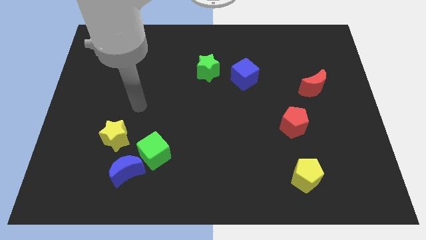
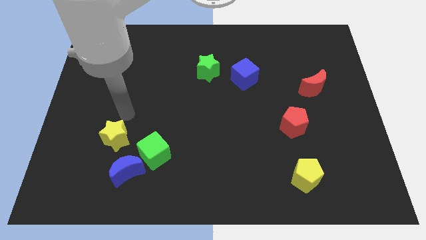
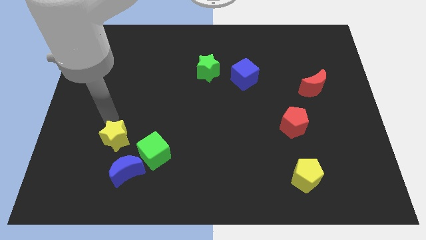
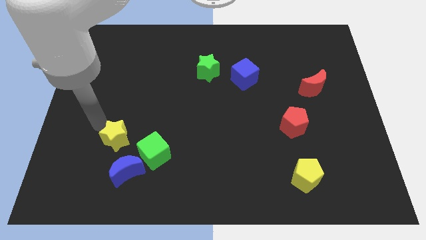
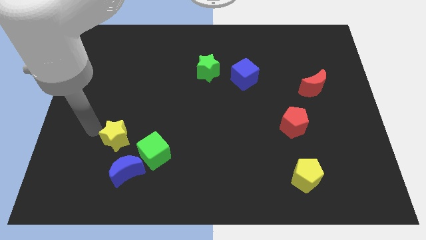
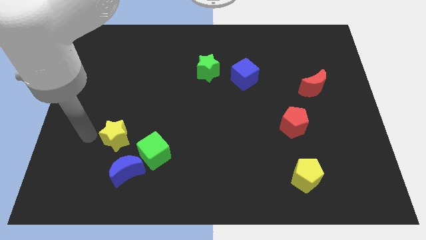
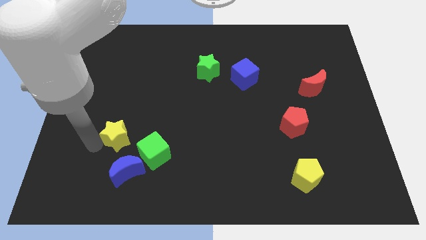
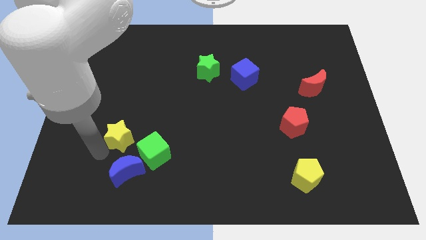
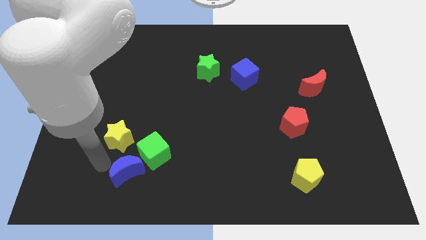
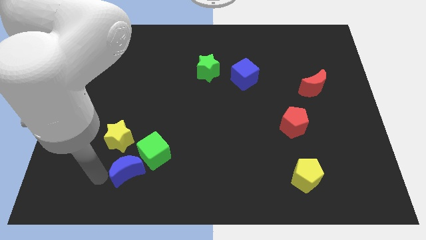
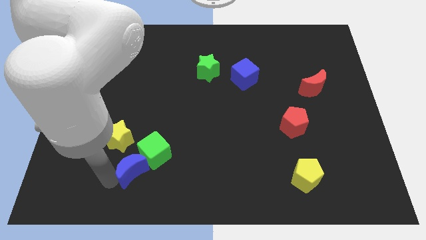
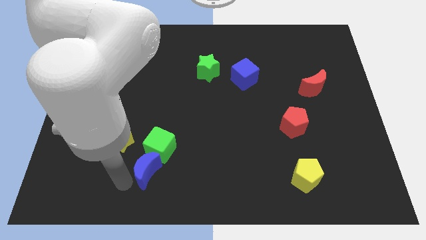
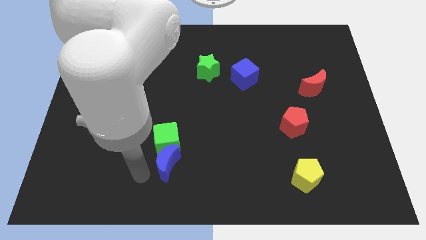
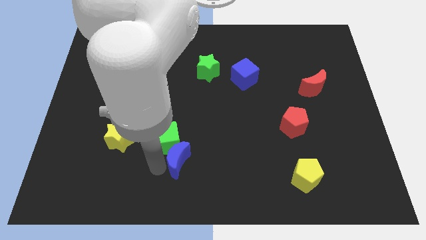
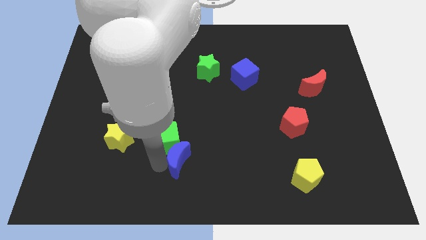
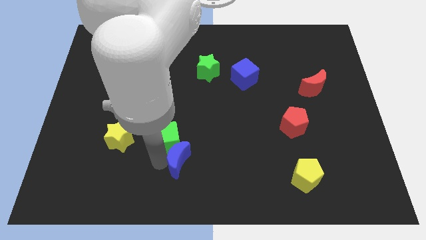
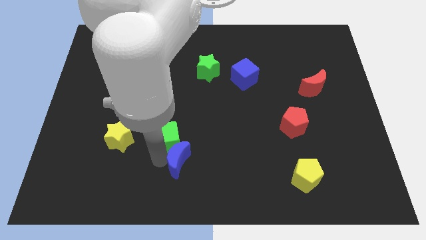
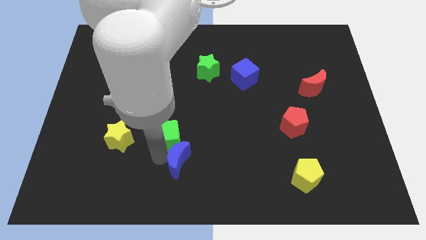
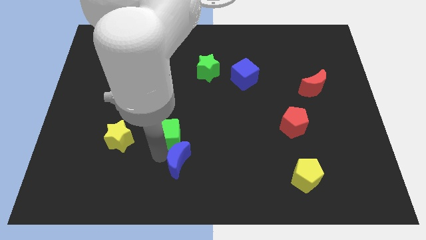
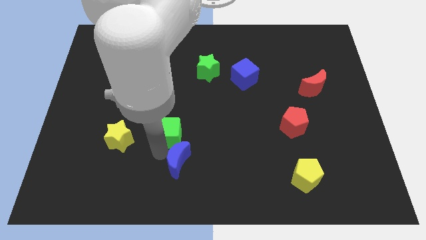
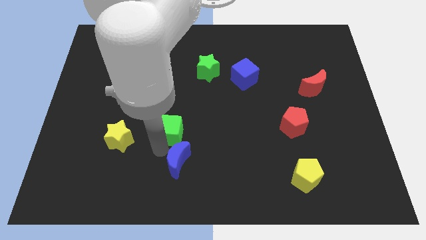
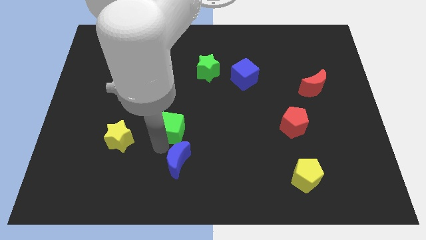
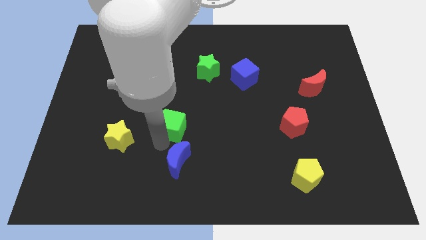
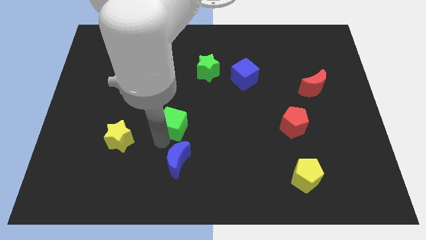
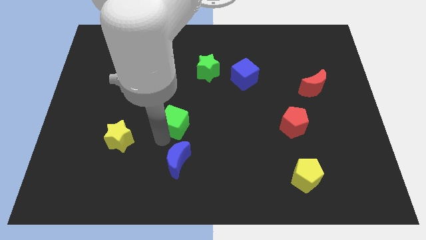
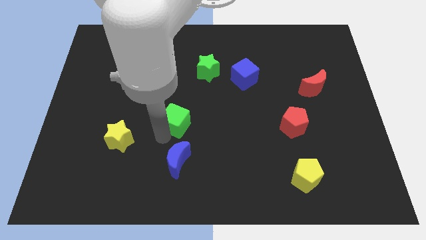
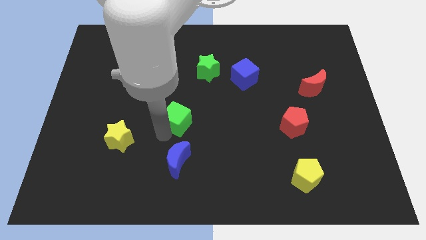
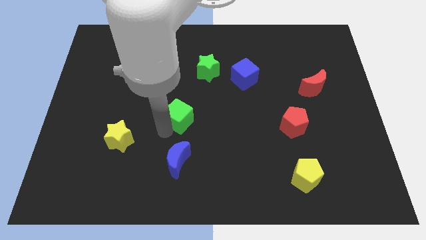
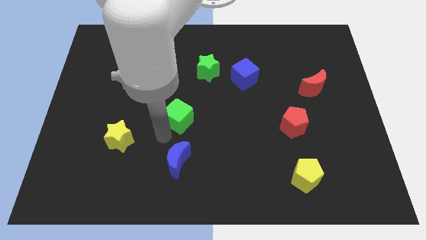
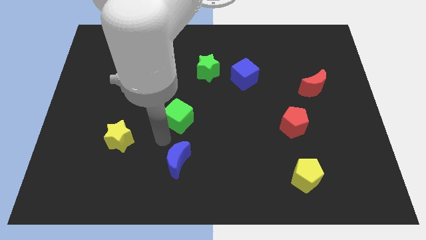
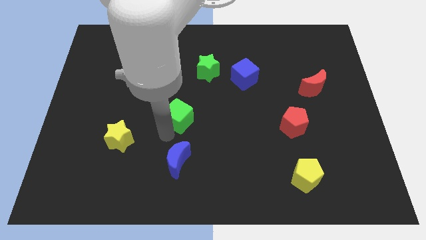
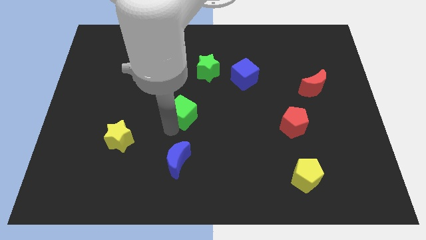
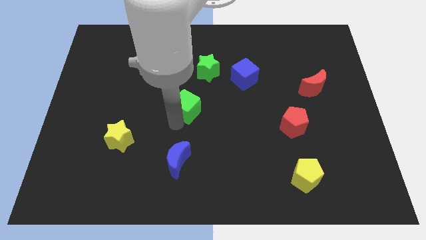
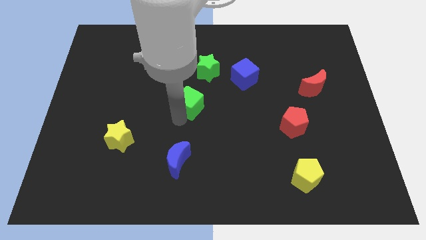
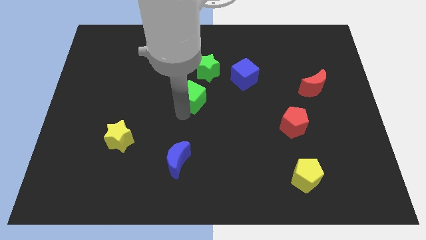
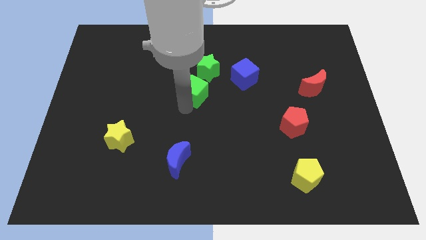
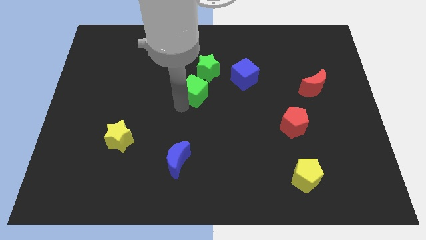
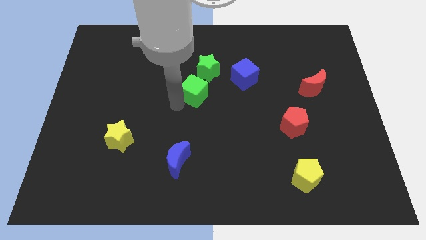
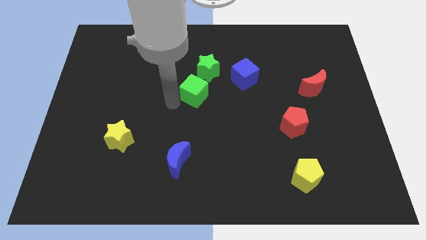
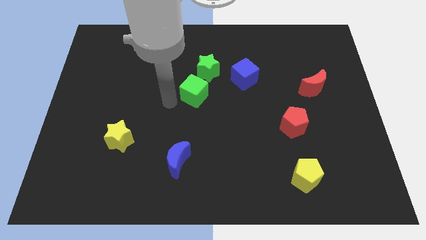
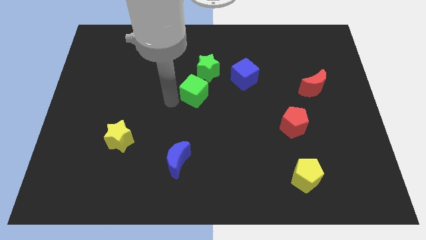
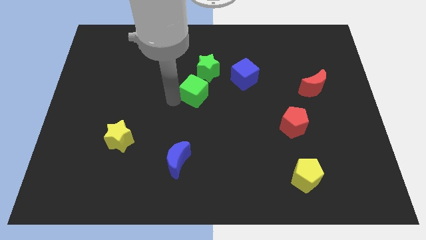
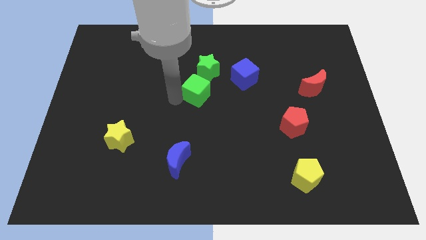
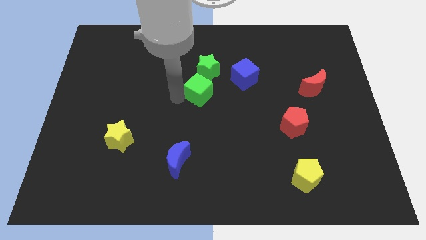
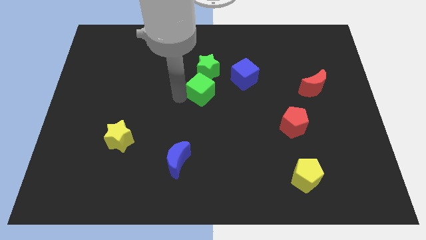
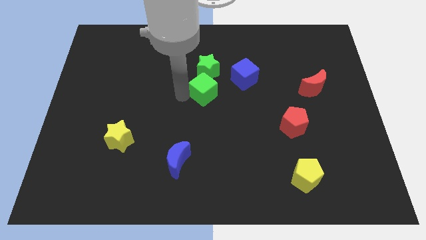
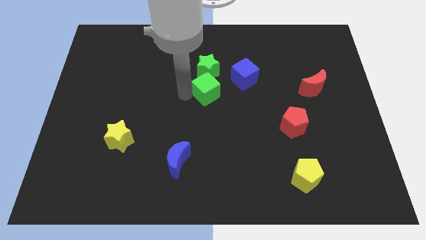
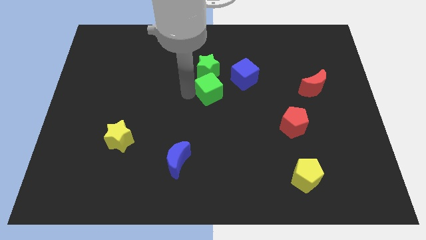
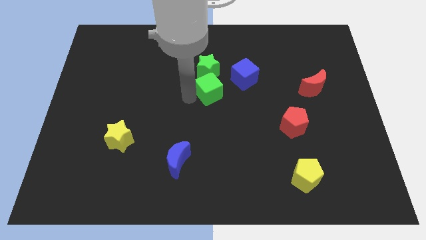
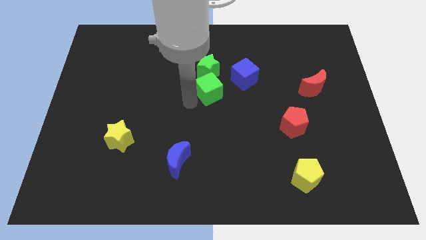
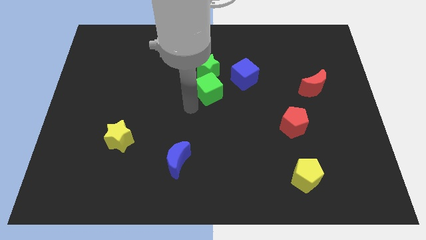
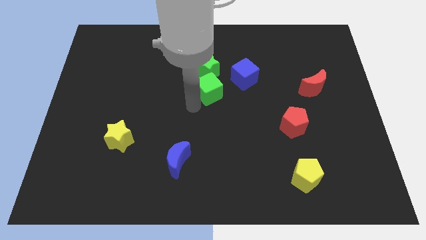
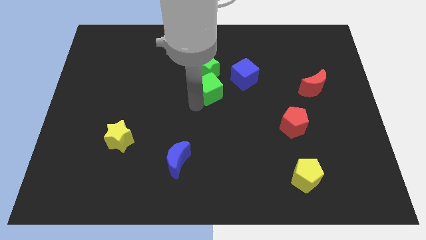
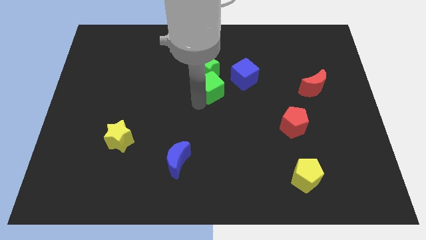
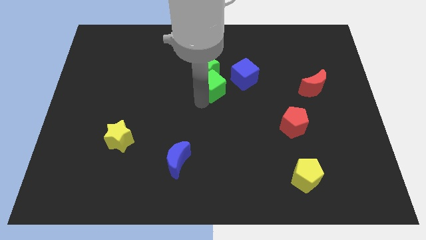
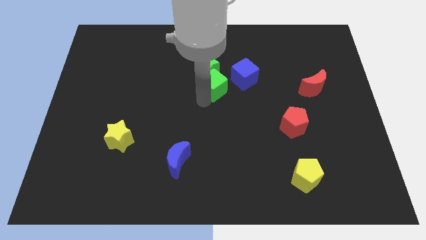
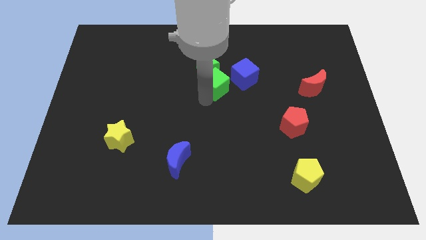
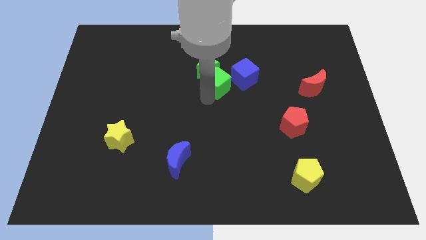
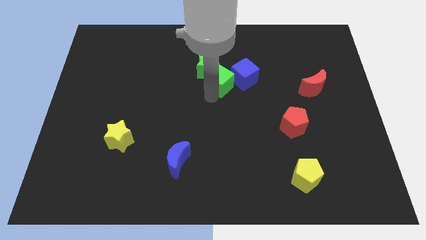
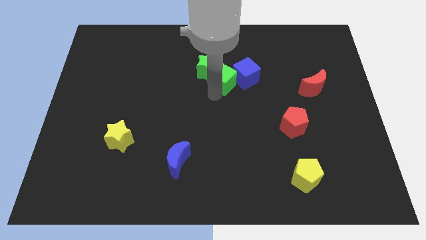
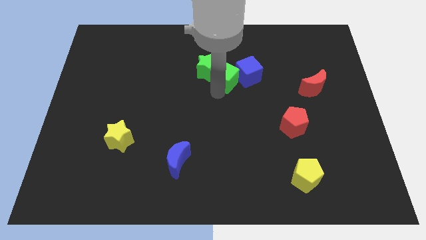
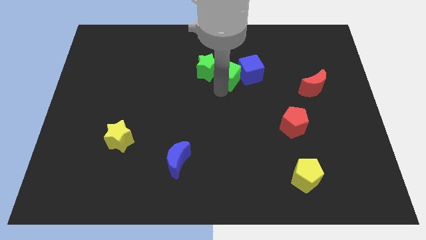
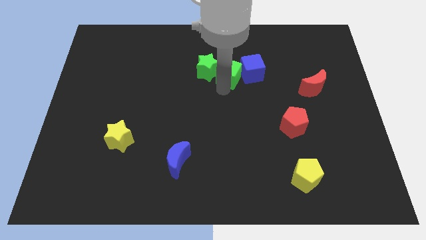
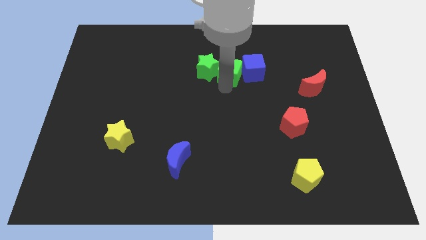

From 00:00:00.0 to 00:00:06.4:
put the green cube to the top right side of the green star

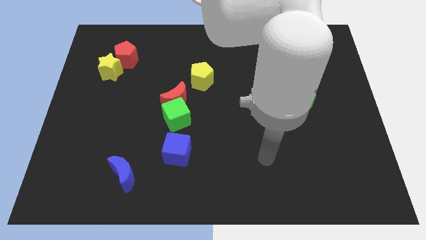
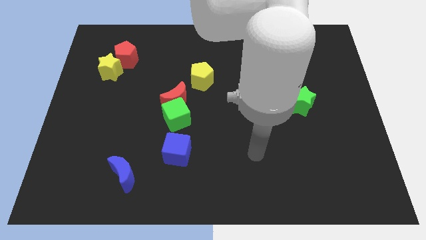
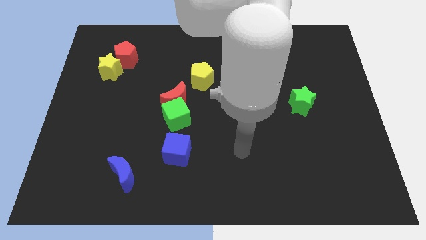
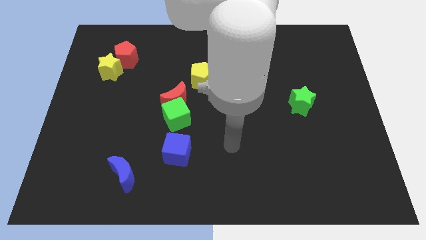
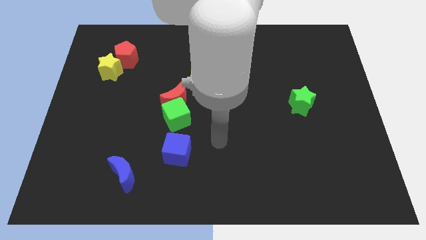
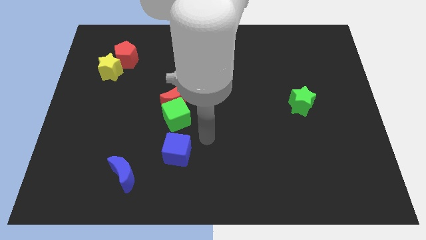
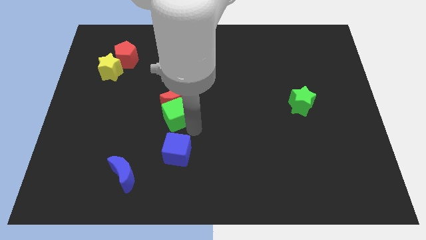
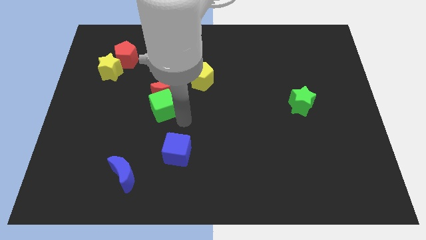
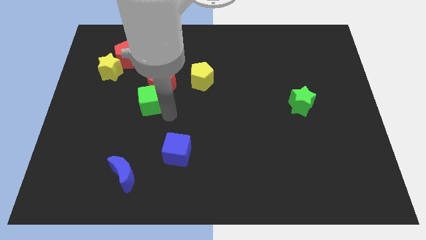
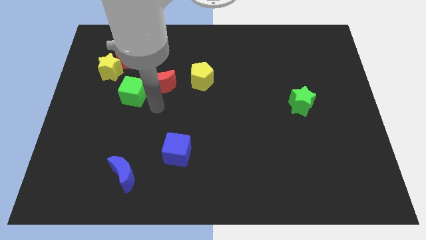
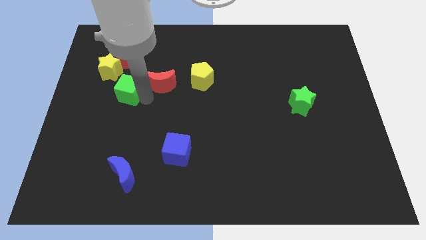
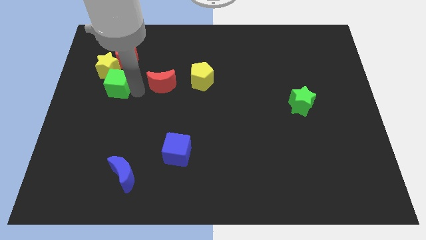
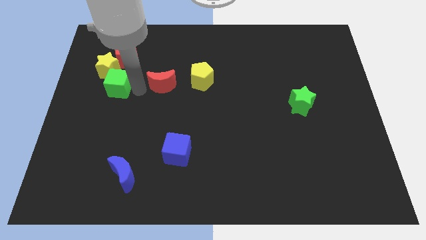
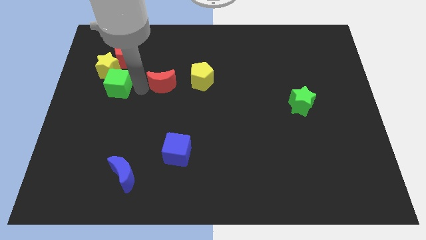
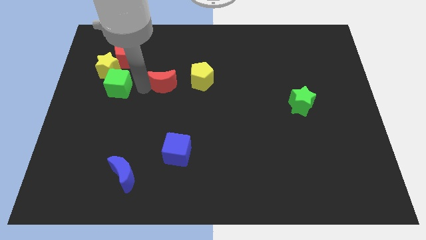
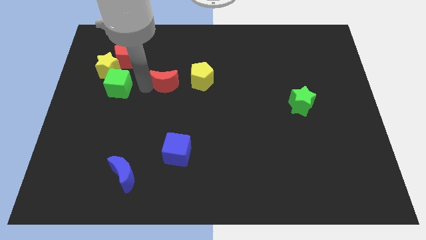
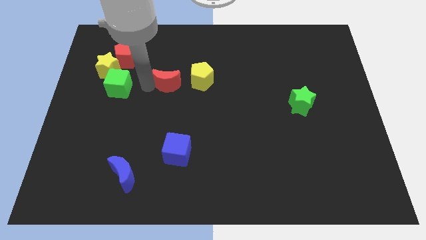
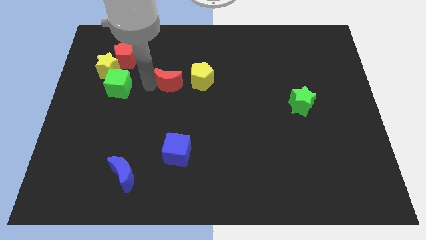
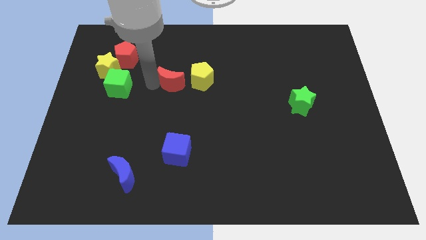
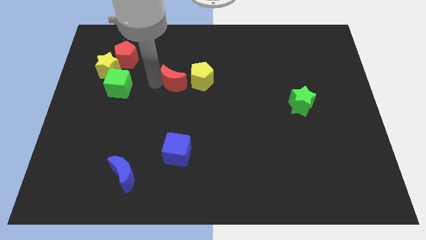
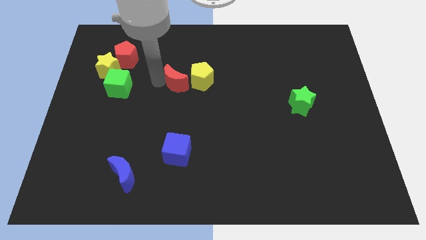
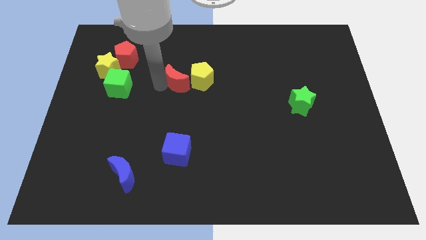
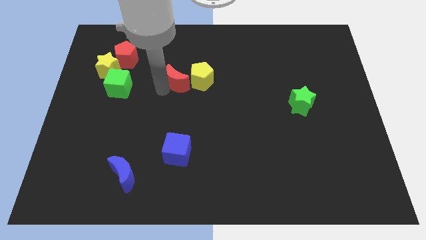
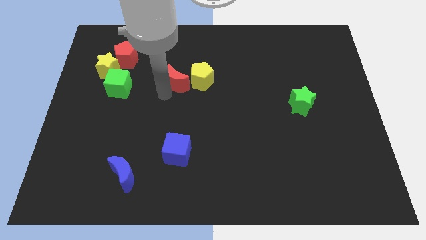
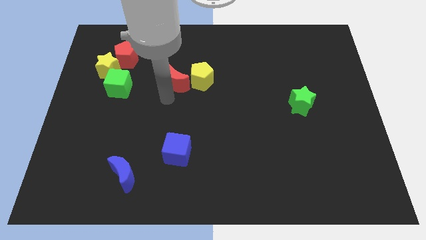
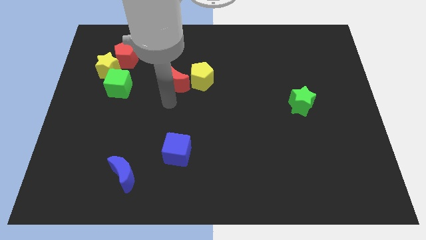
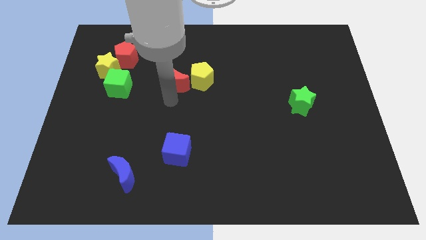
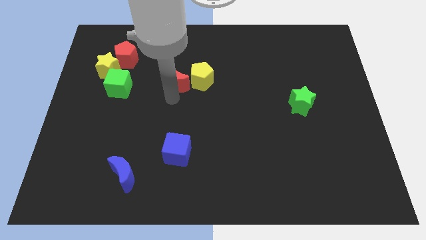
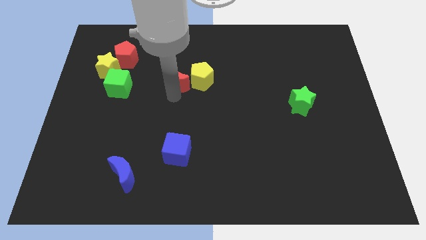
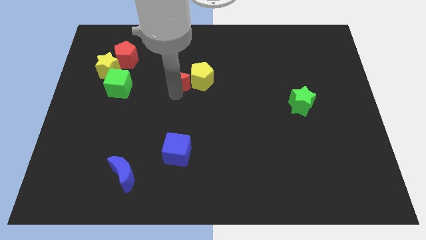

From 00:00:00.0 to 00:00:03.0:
move the red moon to the top left of the yellow pentagon
